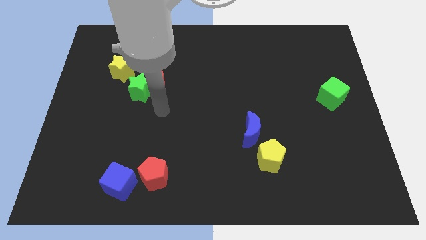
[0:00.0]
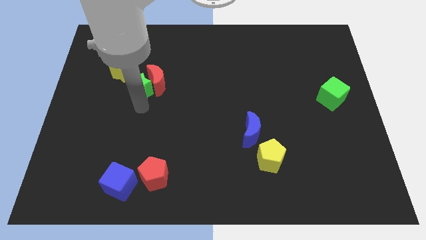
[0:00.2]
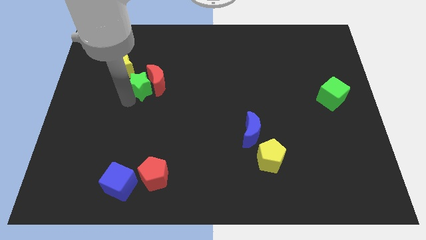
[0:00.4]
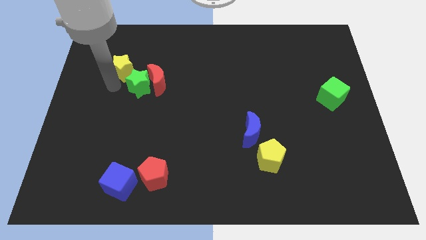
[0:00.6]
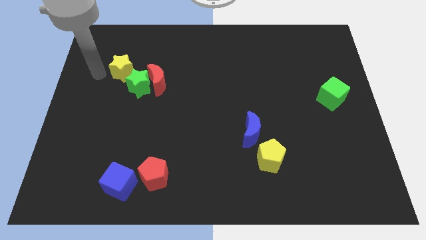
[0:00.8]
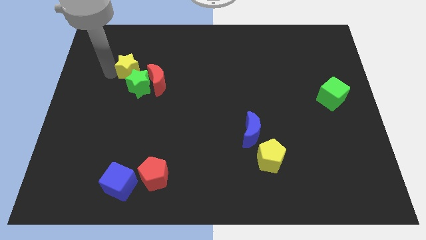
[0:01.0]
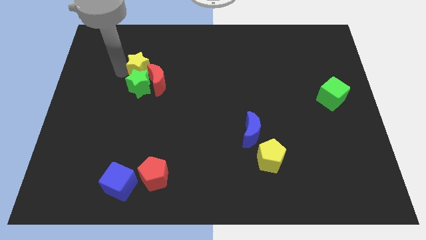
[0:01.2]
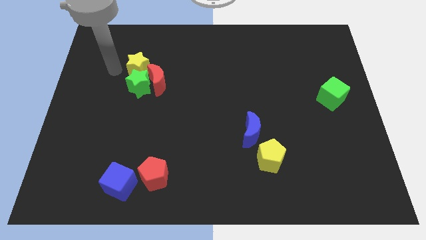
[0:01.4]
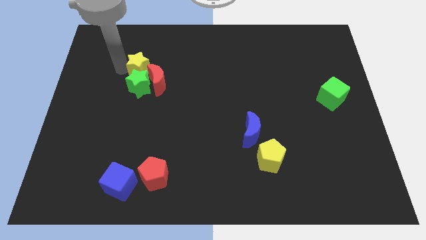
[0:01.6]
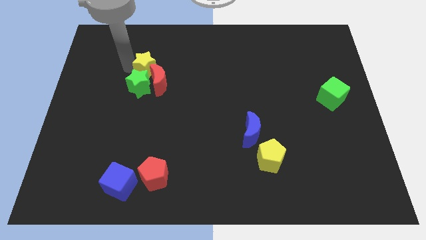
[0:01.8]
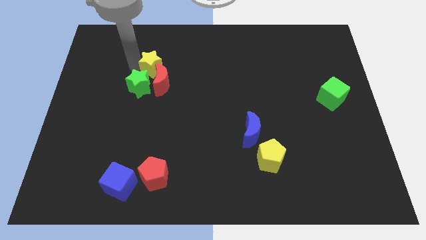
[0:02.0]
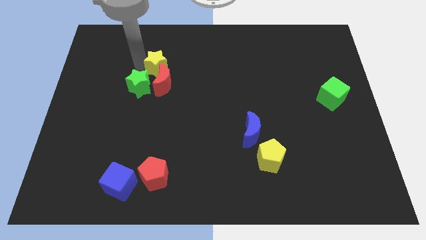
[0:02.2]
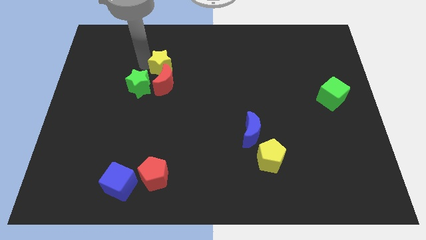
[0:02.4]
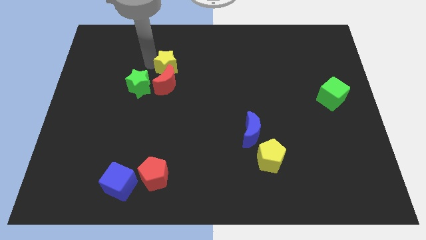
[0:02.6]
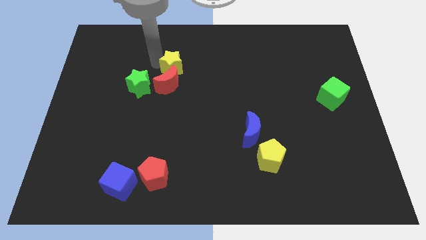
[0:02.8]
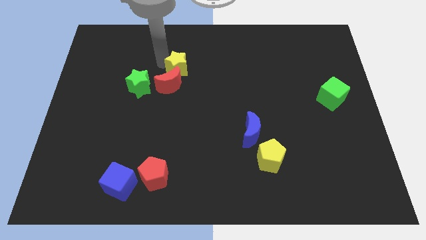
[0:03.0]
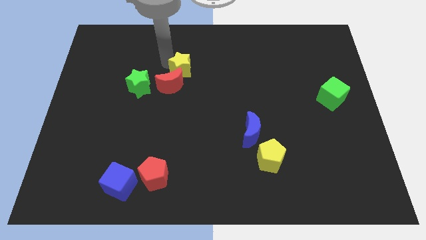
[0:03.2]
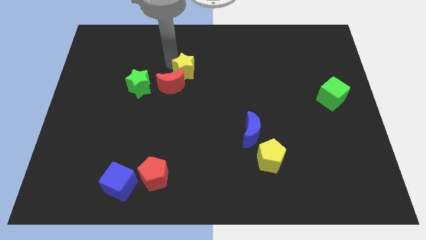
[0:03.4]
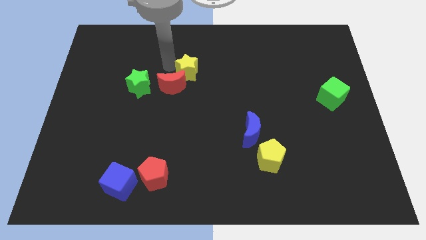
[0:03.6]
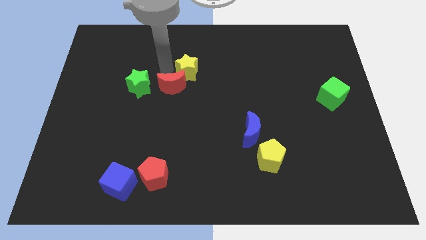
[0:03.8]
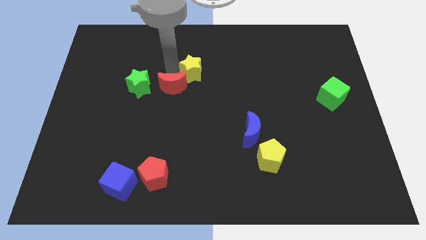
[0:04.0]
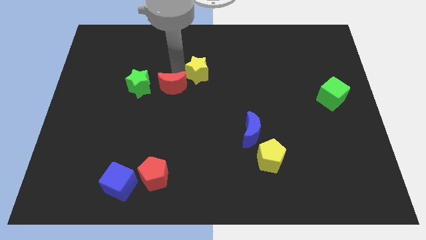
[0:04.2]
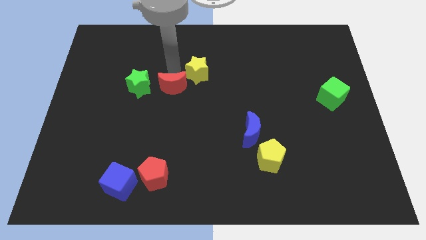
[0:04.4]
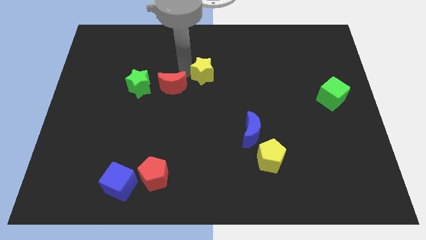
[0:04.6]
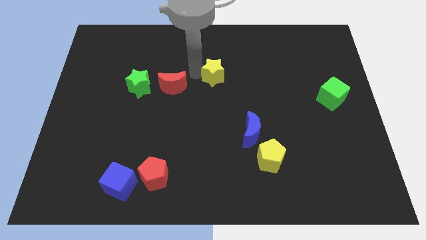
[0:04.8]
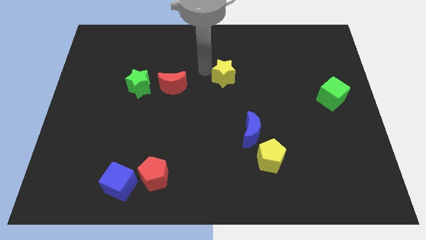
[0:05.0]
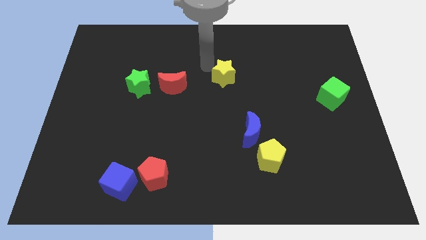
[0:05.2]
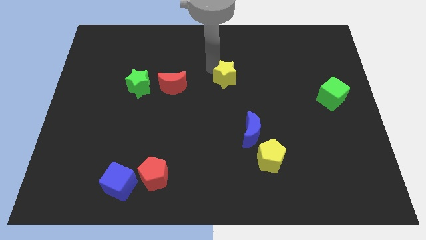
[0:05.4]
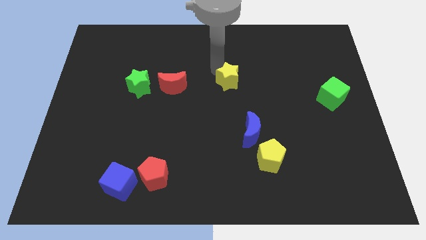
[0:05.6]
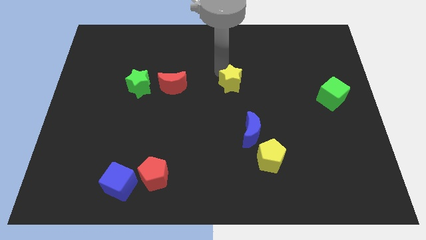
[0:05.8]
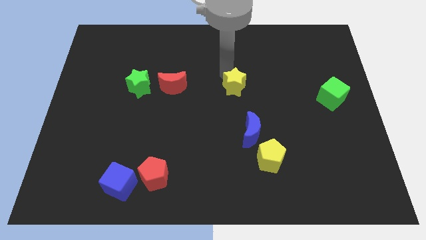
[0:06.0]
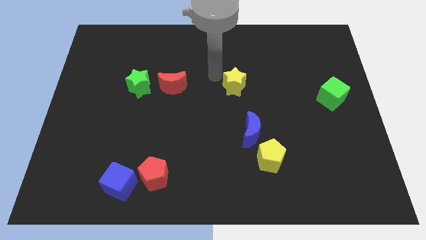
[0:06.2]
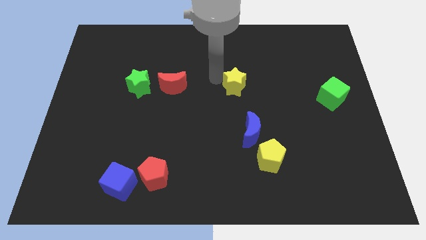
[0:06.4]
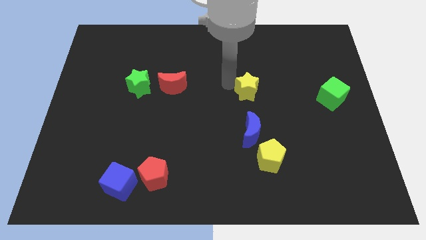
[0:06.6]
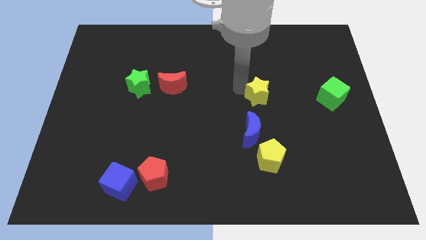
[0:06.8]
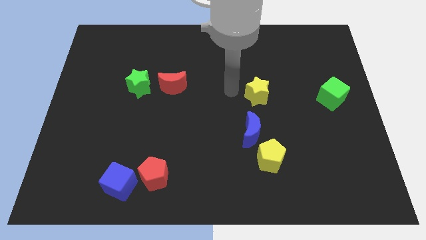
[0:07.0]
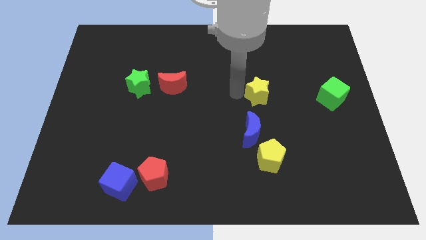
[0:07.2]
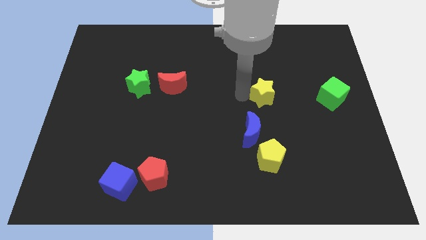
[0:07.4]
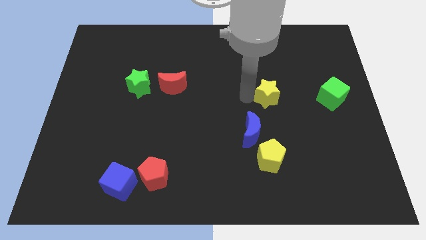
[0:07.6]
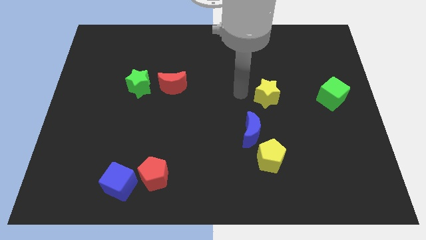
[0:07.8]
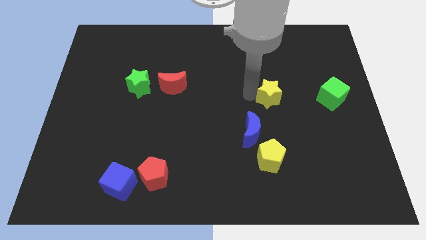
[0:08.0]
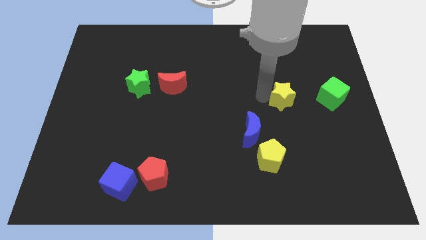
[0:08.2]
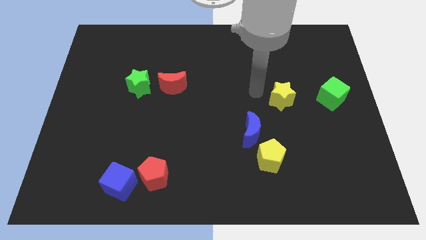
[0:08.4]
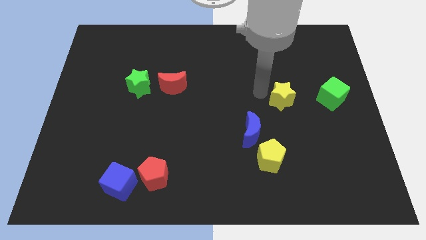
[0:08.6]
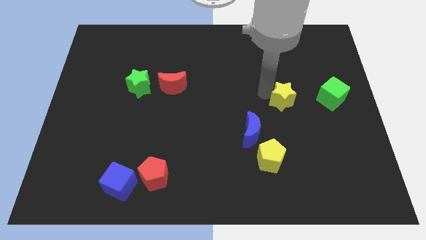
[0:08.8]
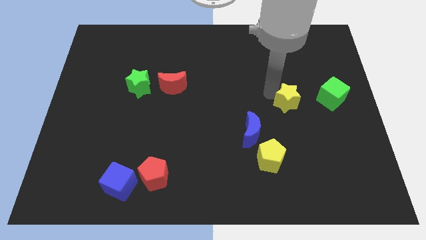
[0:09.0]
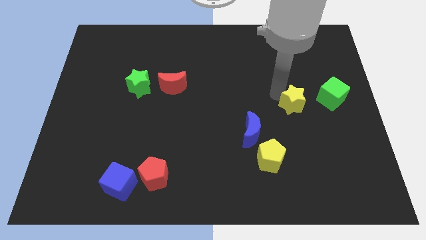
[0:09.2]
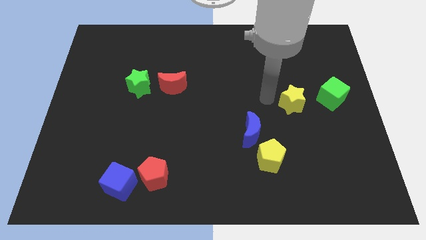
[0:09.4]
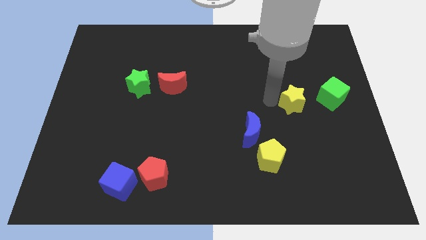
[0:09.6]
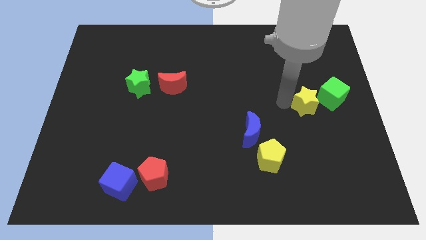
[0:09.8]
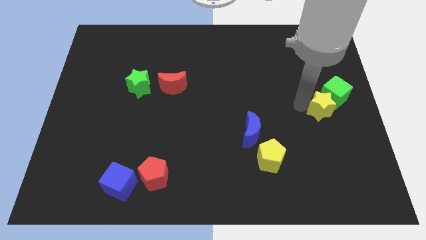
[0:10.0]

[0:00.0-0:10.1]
slide the yellow star to the right side of the board

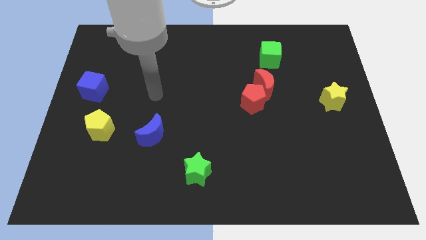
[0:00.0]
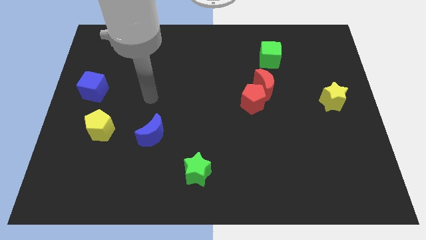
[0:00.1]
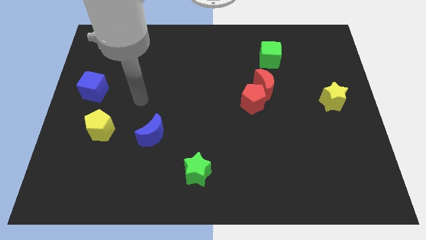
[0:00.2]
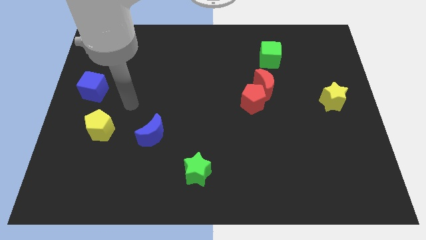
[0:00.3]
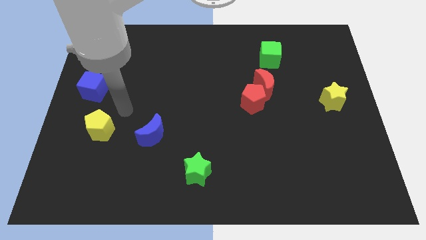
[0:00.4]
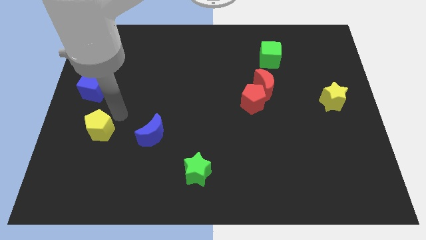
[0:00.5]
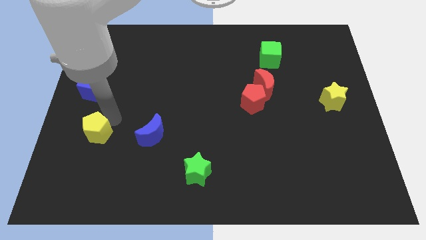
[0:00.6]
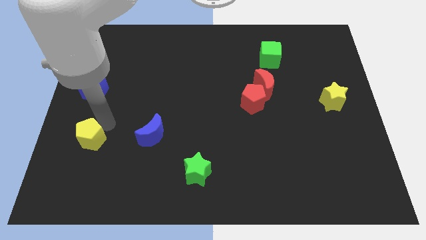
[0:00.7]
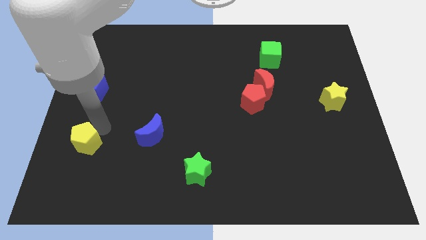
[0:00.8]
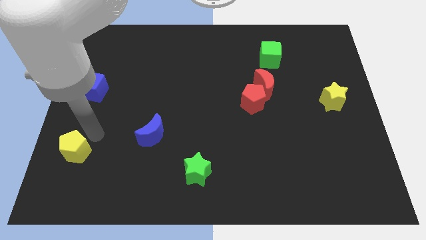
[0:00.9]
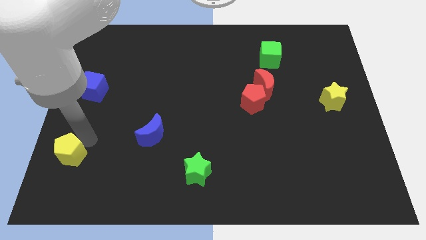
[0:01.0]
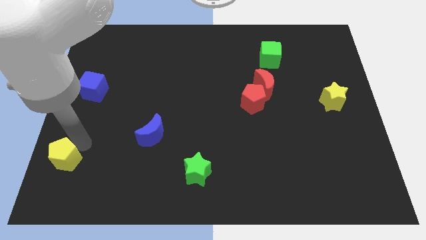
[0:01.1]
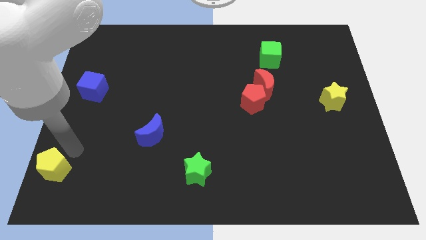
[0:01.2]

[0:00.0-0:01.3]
move the yellow pentagon to the lower left corner
